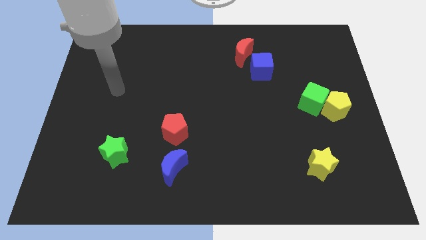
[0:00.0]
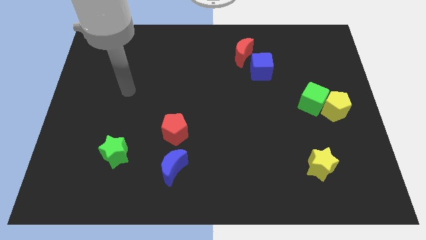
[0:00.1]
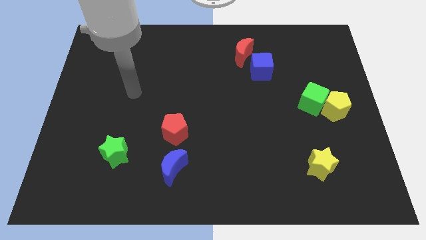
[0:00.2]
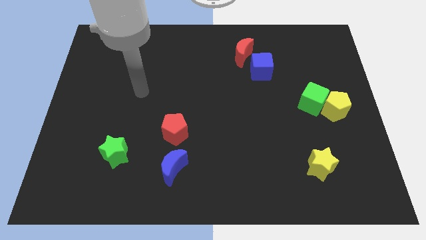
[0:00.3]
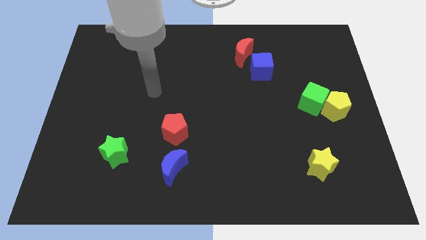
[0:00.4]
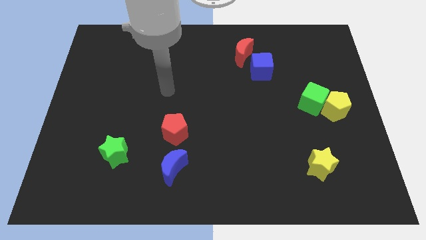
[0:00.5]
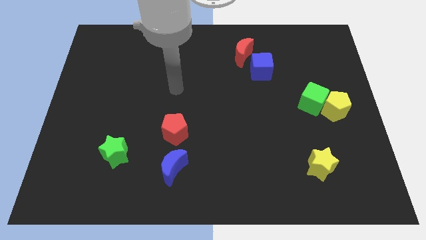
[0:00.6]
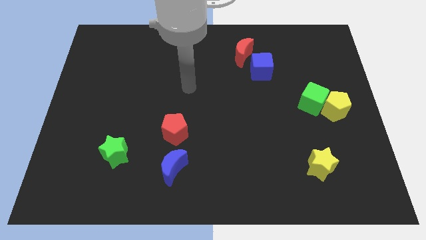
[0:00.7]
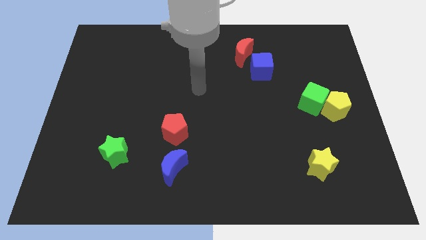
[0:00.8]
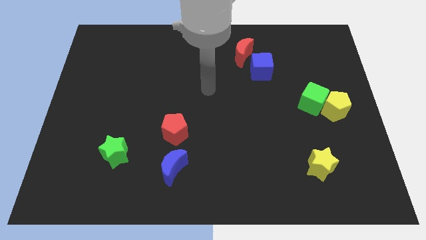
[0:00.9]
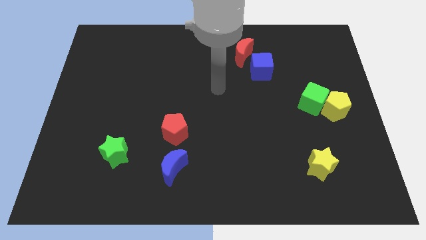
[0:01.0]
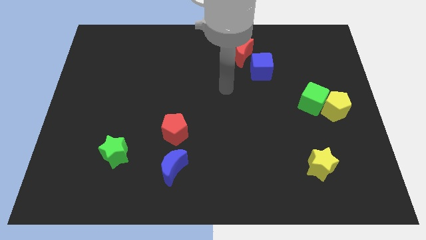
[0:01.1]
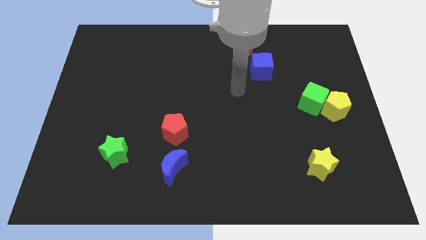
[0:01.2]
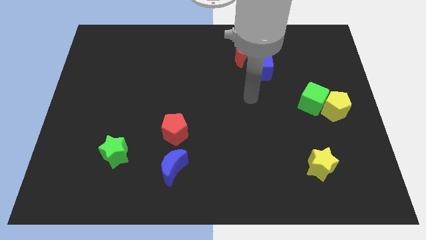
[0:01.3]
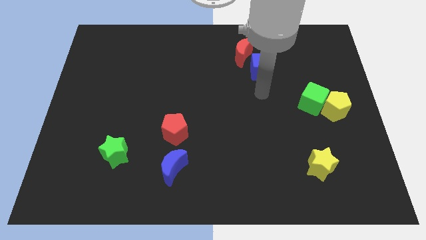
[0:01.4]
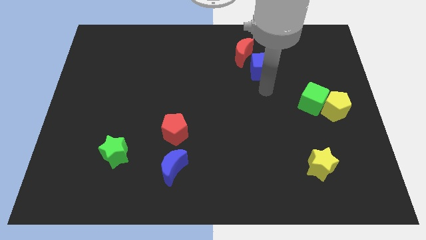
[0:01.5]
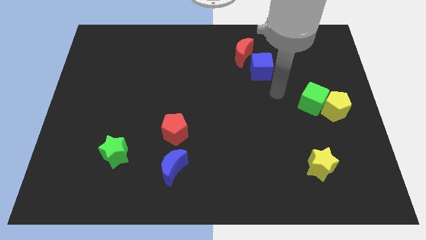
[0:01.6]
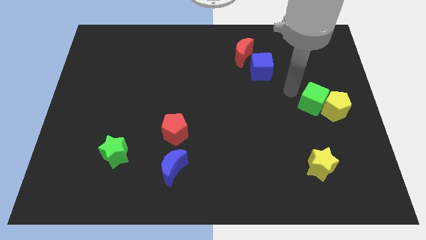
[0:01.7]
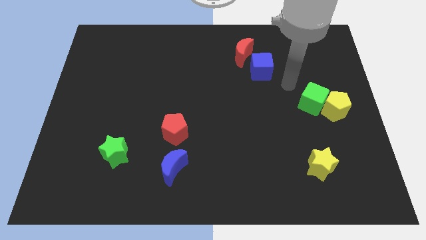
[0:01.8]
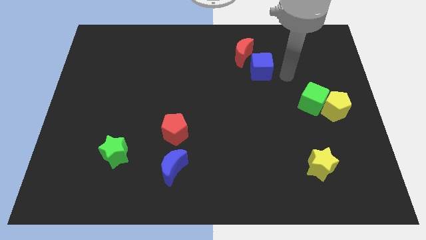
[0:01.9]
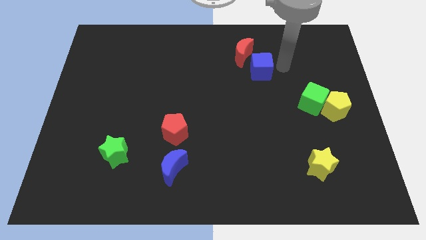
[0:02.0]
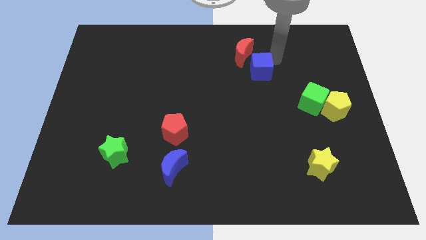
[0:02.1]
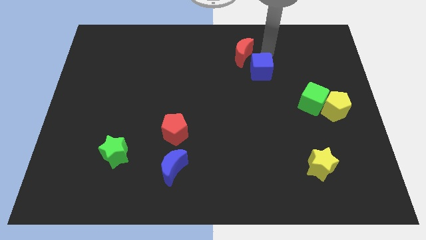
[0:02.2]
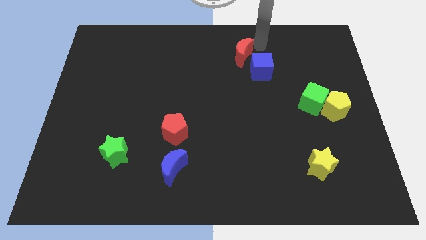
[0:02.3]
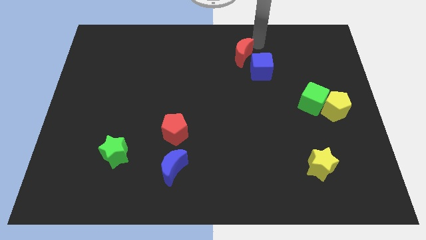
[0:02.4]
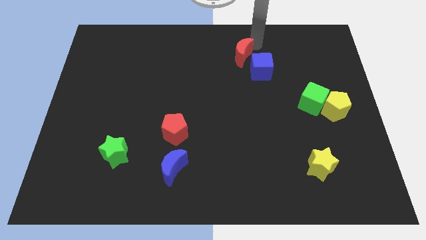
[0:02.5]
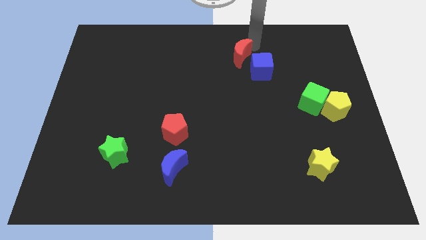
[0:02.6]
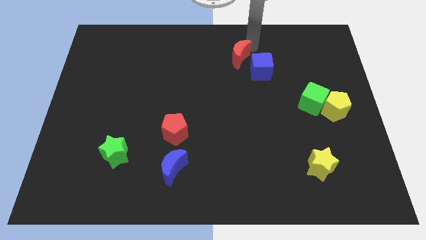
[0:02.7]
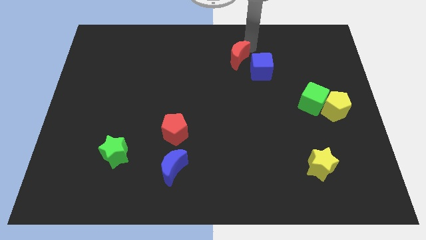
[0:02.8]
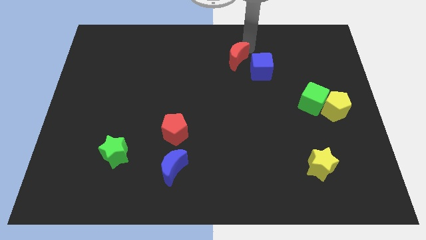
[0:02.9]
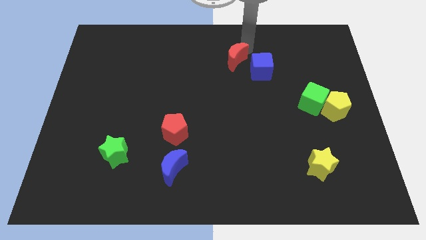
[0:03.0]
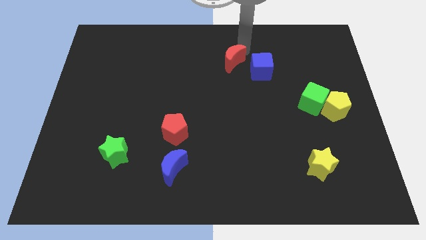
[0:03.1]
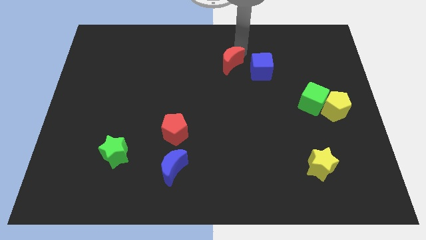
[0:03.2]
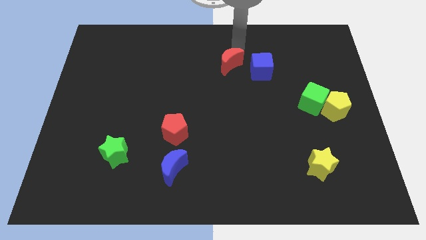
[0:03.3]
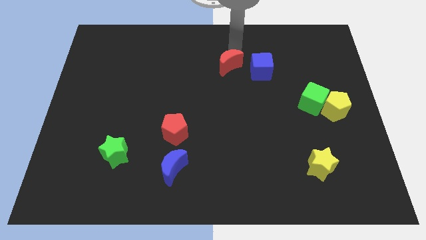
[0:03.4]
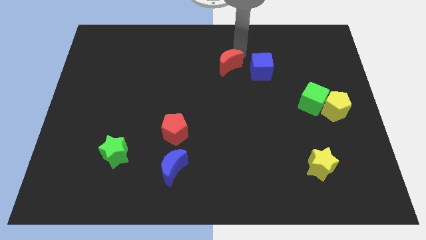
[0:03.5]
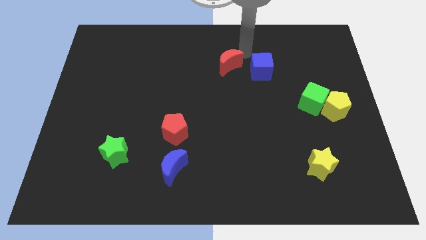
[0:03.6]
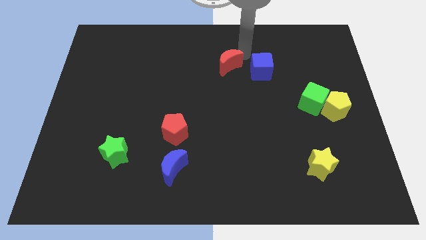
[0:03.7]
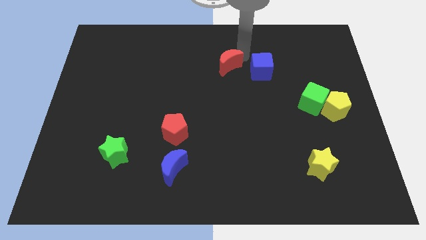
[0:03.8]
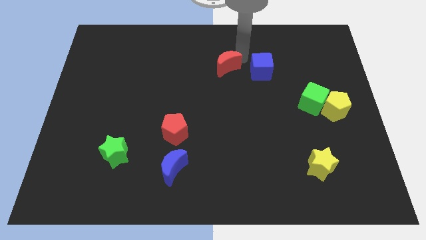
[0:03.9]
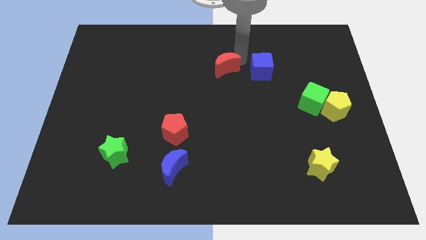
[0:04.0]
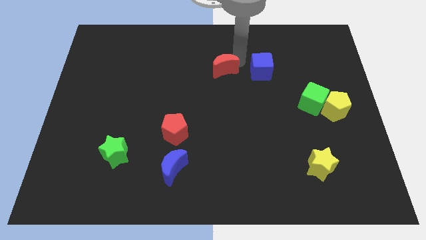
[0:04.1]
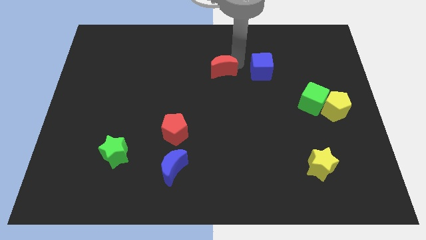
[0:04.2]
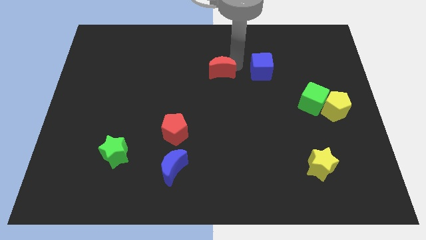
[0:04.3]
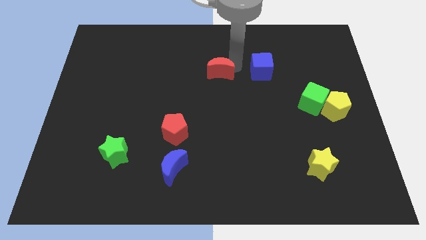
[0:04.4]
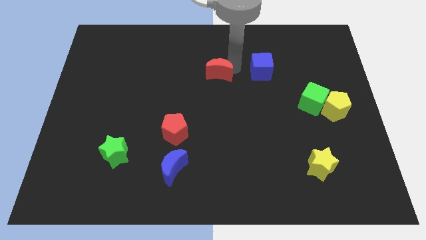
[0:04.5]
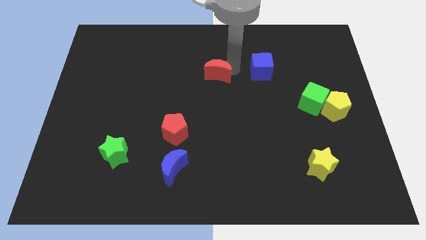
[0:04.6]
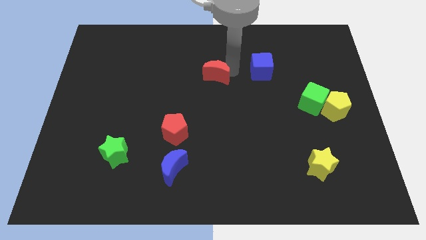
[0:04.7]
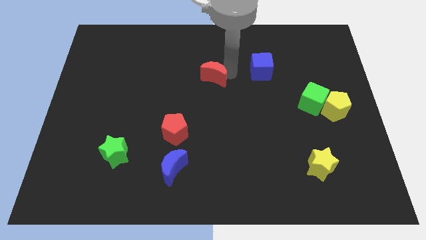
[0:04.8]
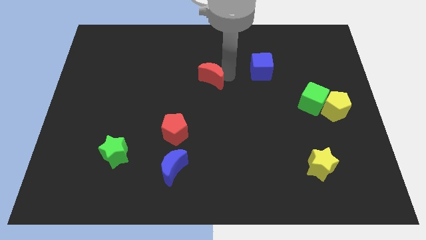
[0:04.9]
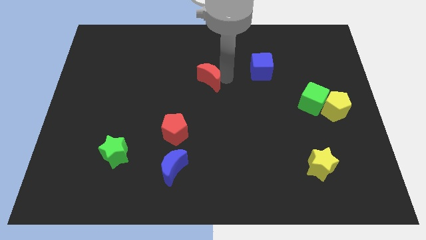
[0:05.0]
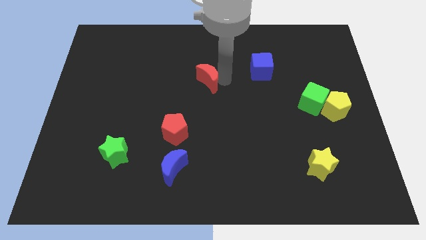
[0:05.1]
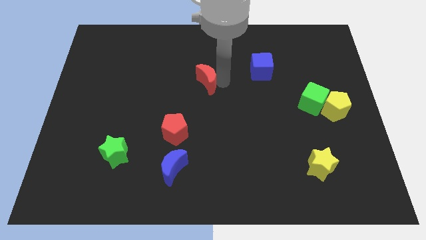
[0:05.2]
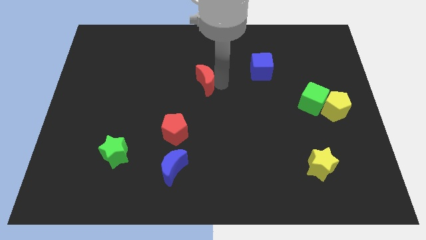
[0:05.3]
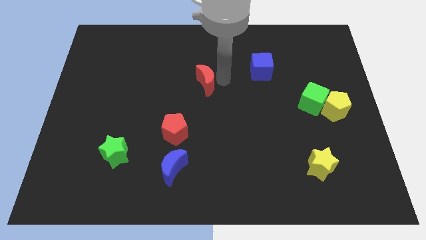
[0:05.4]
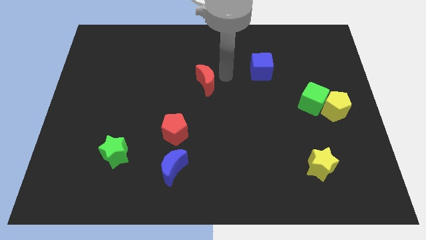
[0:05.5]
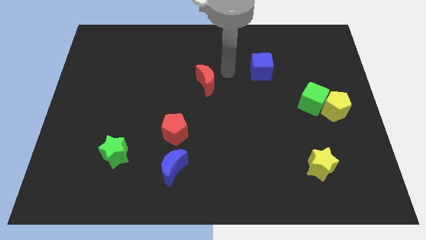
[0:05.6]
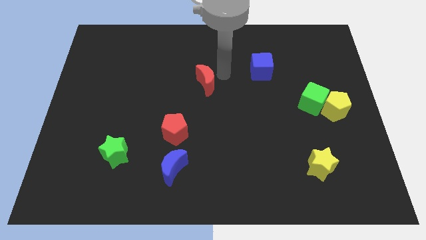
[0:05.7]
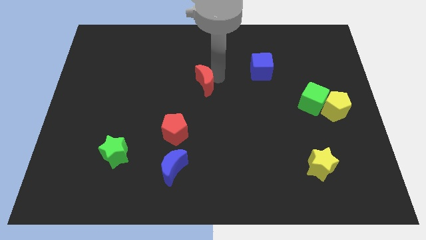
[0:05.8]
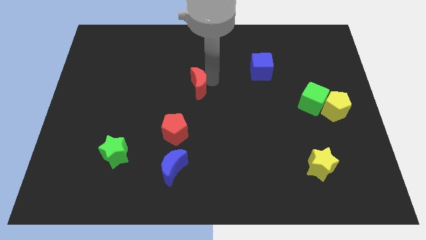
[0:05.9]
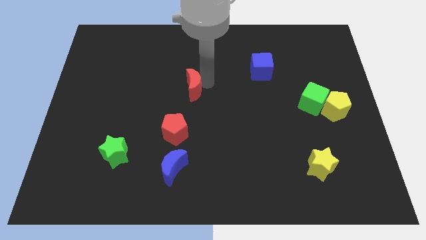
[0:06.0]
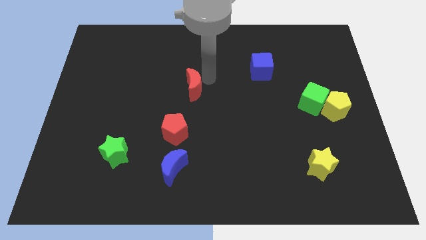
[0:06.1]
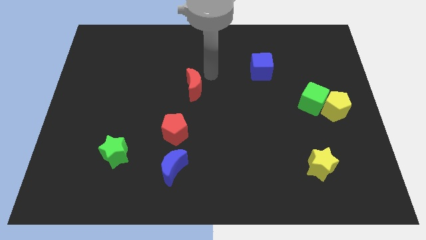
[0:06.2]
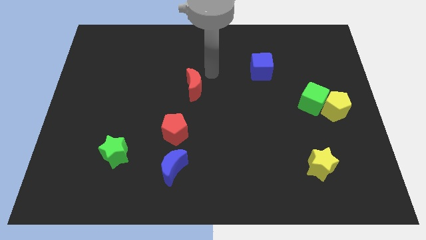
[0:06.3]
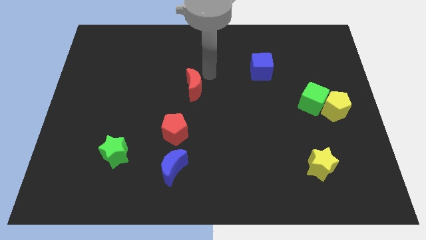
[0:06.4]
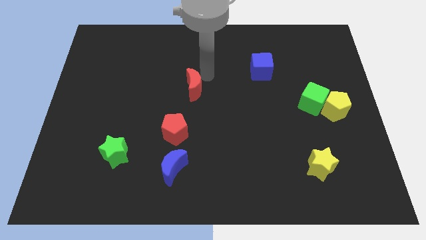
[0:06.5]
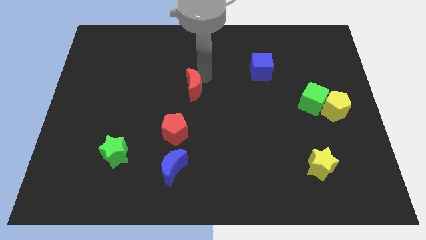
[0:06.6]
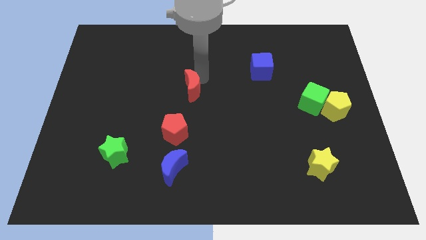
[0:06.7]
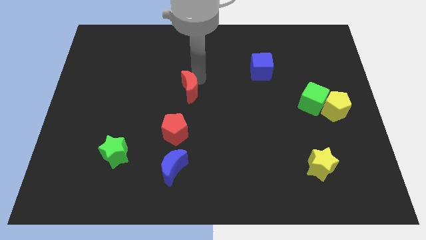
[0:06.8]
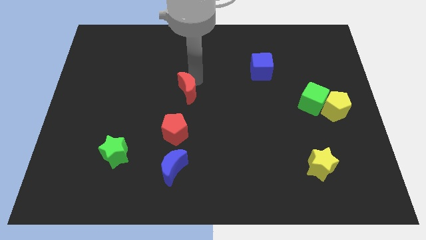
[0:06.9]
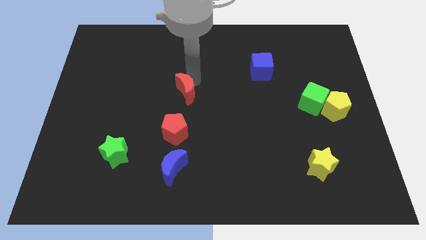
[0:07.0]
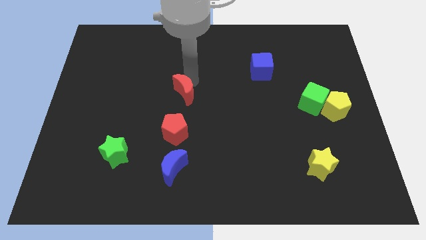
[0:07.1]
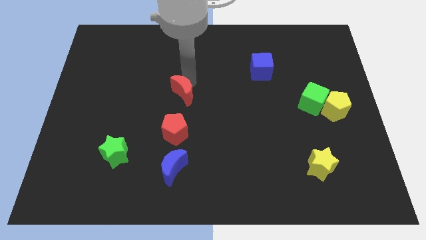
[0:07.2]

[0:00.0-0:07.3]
push the red moon down and to the left

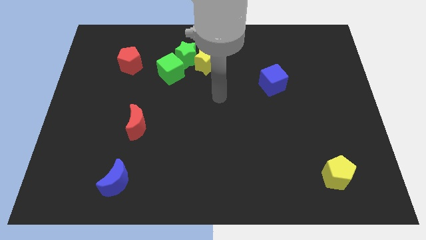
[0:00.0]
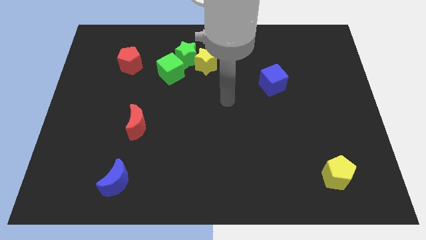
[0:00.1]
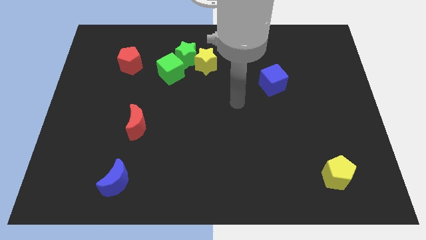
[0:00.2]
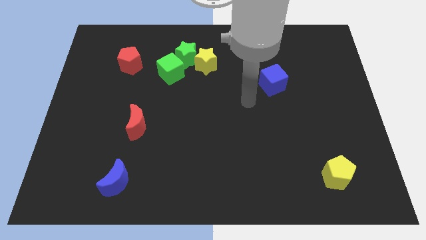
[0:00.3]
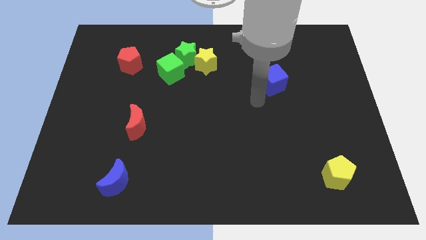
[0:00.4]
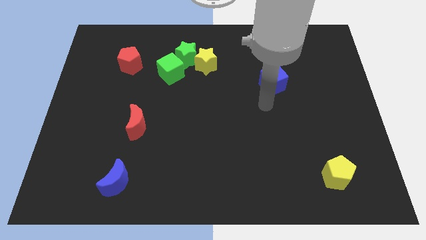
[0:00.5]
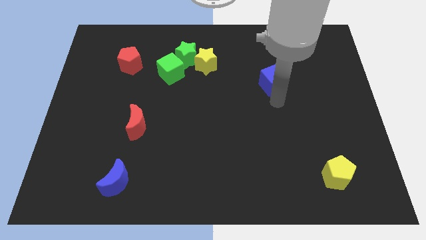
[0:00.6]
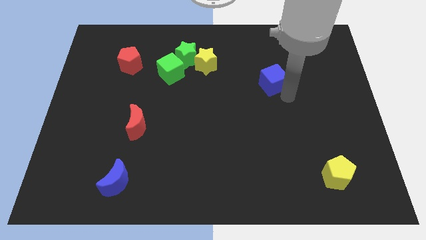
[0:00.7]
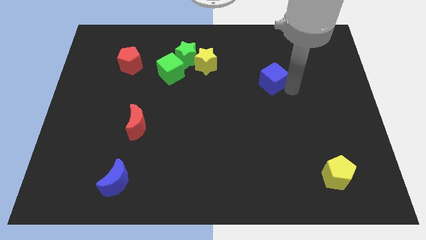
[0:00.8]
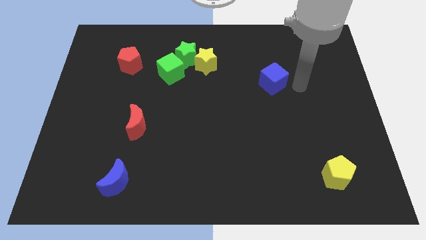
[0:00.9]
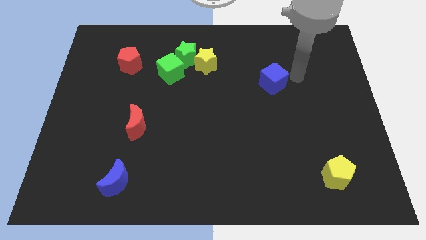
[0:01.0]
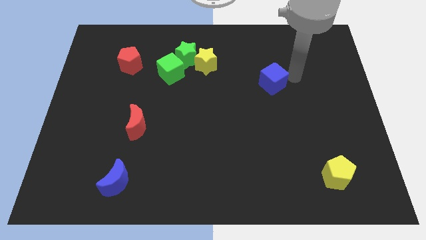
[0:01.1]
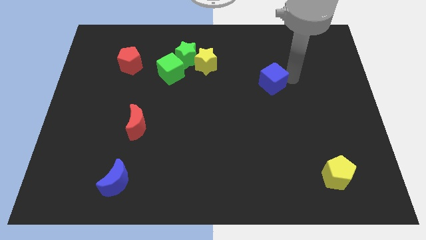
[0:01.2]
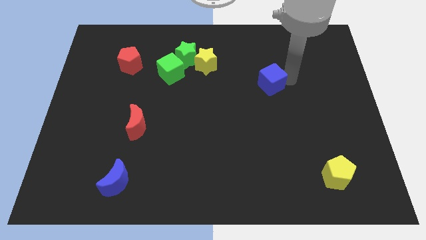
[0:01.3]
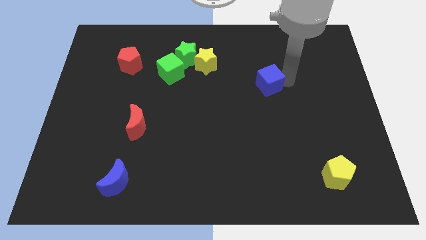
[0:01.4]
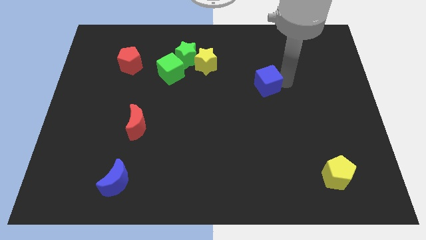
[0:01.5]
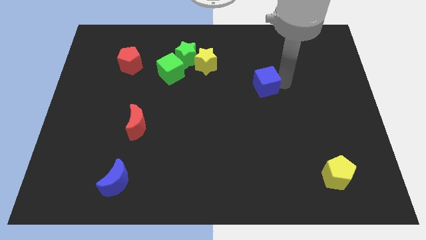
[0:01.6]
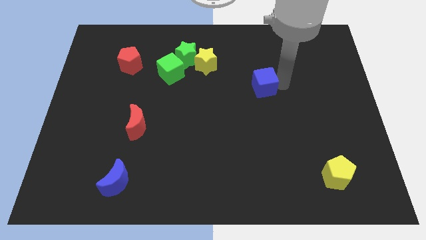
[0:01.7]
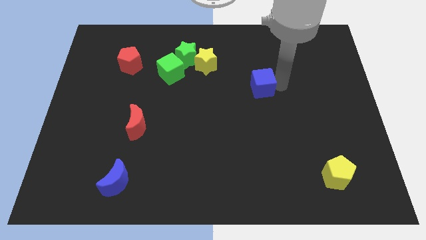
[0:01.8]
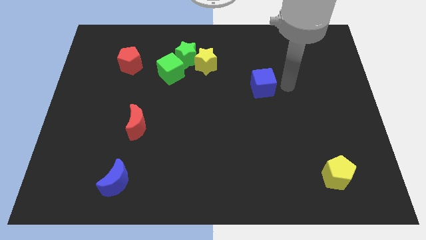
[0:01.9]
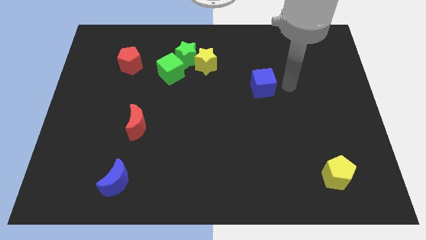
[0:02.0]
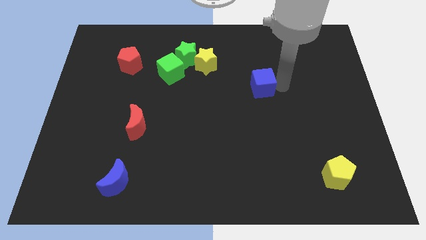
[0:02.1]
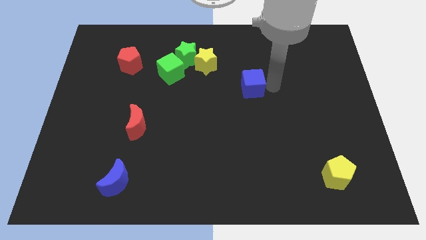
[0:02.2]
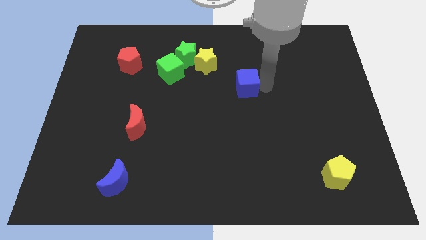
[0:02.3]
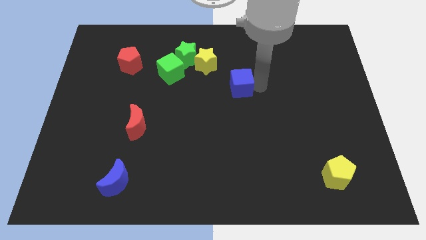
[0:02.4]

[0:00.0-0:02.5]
slide the blue cube a bit to the left
